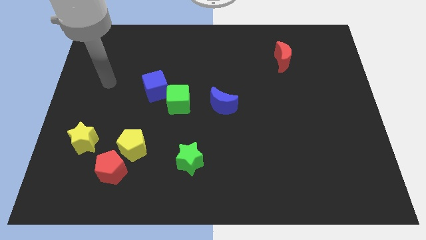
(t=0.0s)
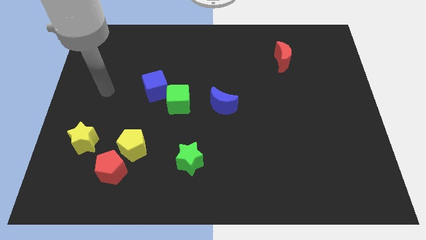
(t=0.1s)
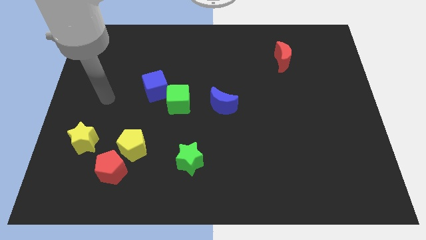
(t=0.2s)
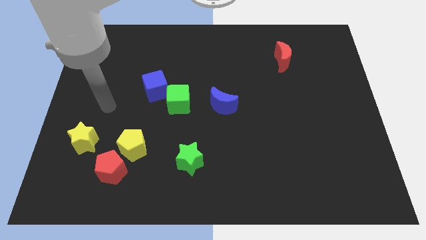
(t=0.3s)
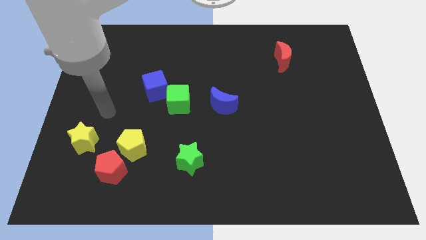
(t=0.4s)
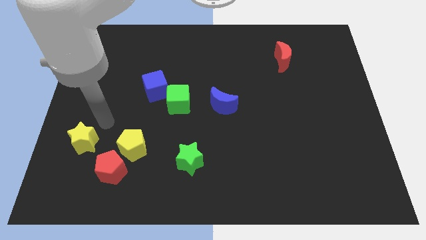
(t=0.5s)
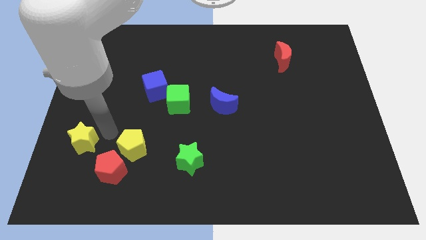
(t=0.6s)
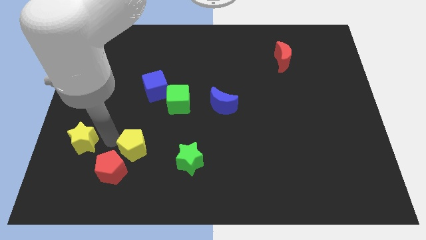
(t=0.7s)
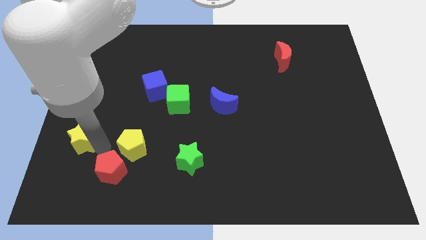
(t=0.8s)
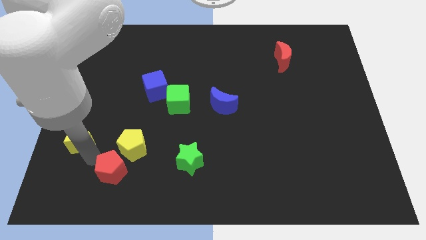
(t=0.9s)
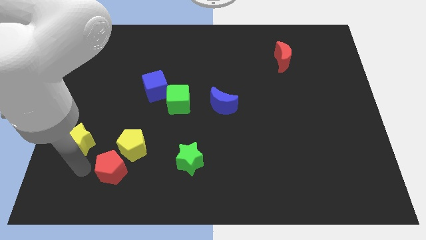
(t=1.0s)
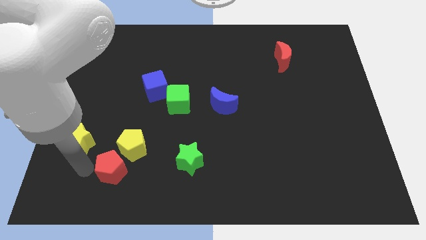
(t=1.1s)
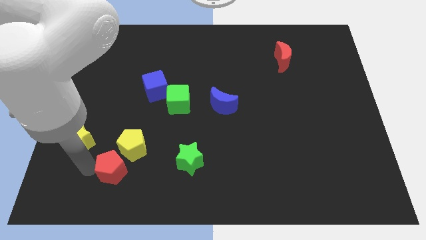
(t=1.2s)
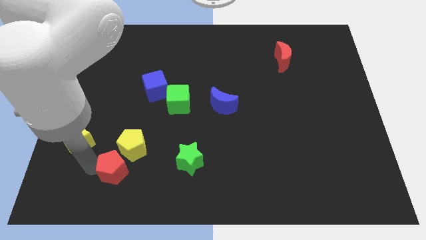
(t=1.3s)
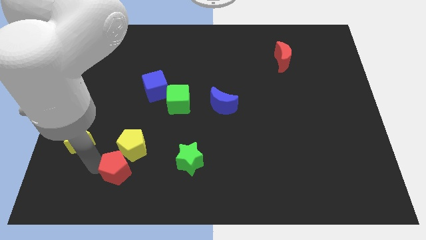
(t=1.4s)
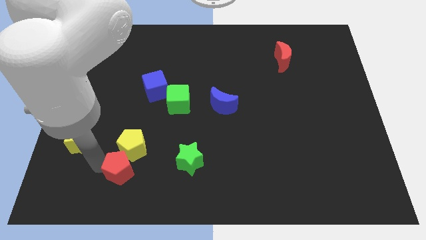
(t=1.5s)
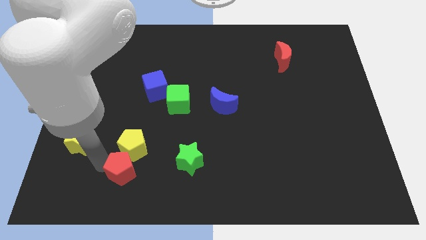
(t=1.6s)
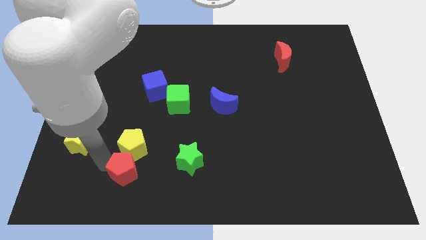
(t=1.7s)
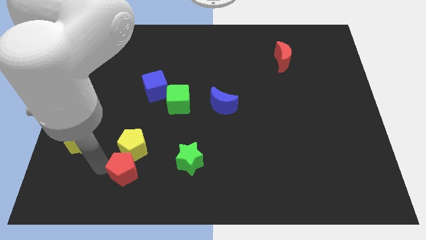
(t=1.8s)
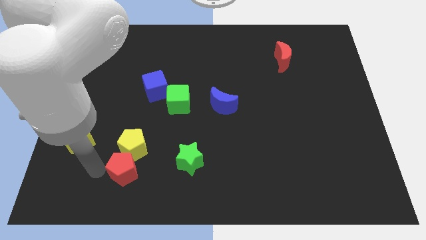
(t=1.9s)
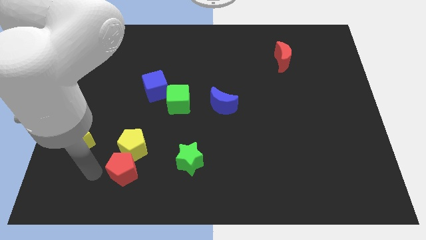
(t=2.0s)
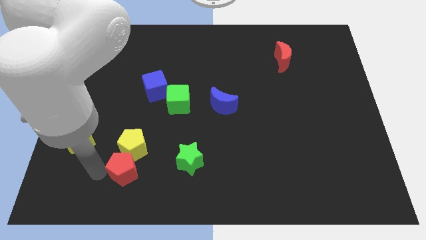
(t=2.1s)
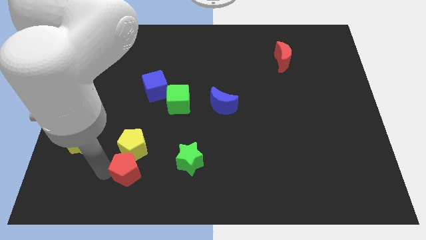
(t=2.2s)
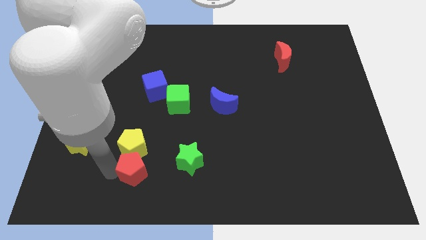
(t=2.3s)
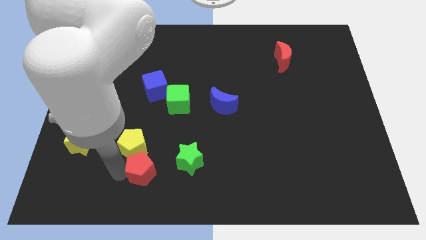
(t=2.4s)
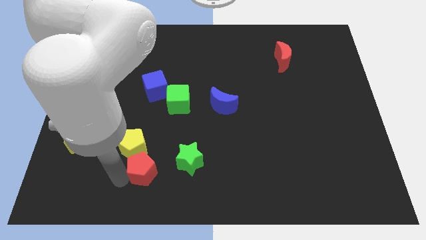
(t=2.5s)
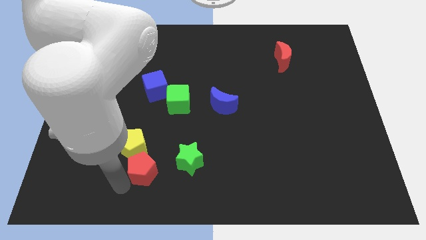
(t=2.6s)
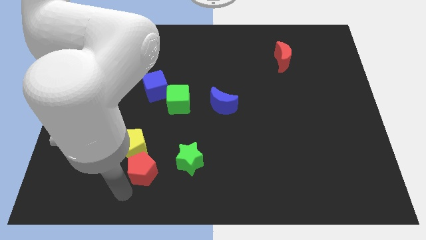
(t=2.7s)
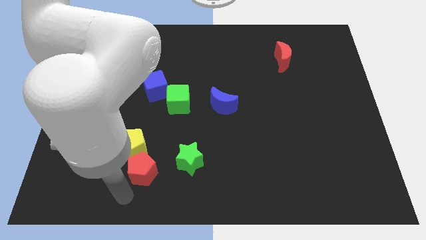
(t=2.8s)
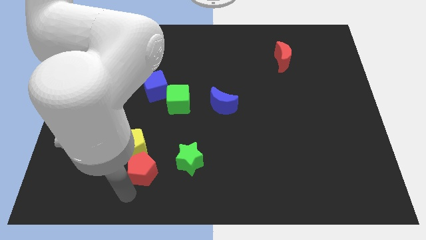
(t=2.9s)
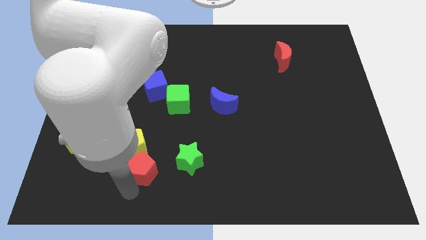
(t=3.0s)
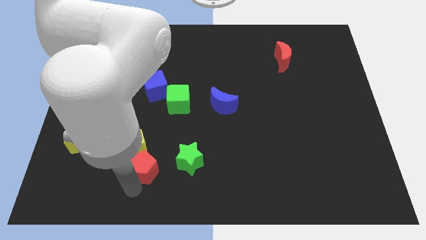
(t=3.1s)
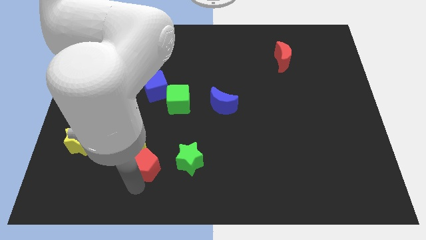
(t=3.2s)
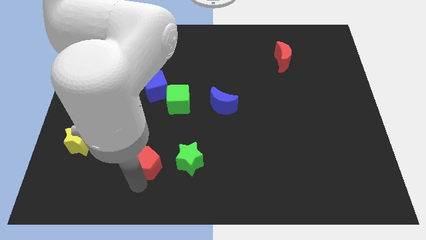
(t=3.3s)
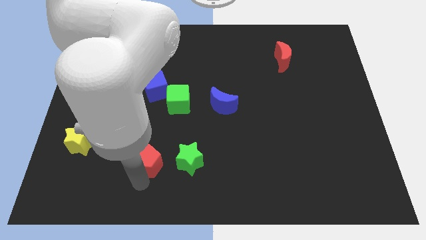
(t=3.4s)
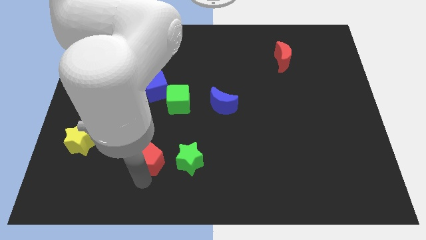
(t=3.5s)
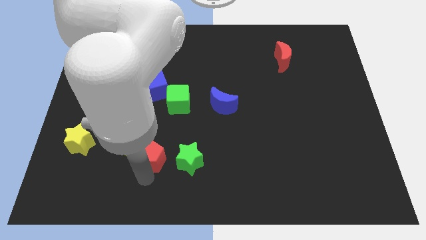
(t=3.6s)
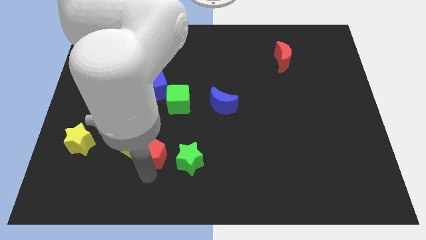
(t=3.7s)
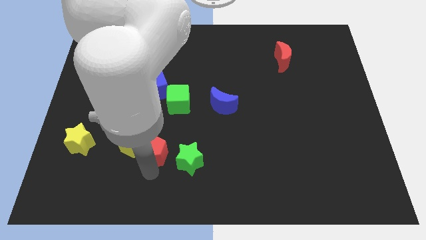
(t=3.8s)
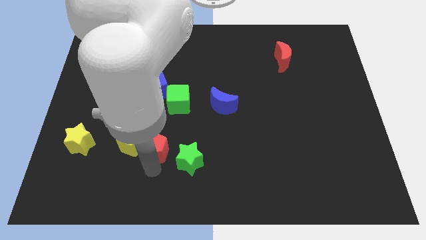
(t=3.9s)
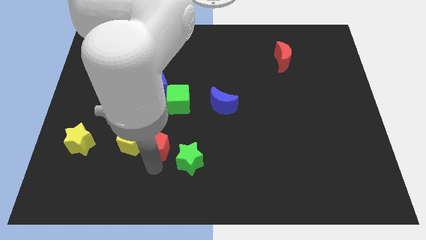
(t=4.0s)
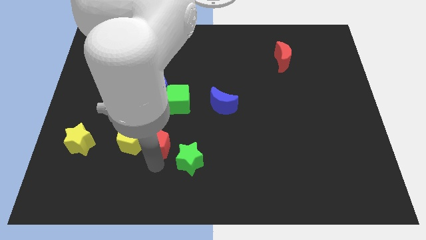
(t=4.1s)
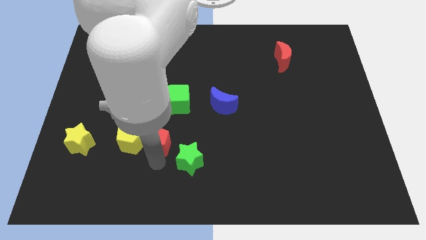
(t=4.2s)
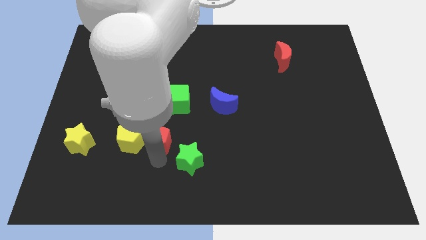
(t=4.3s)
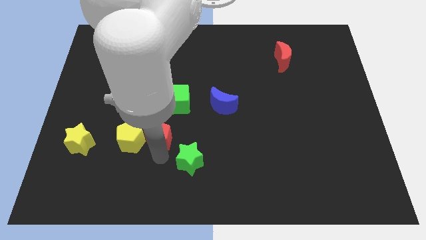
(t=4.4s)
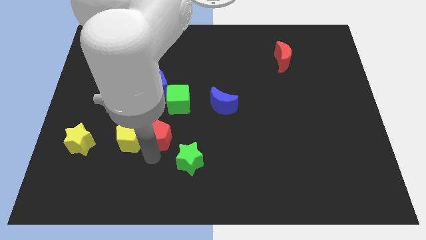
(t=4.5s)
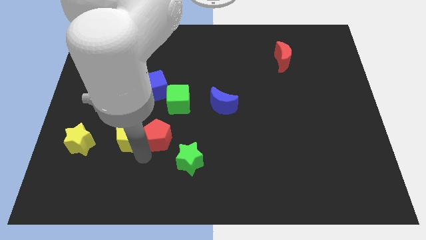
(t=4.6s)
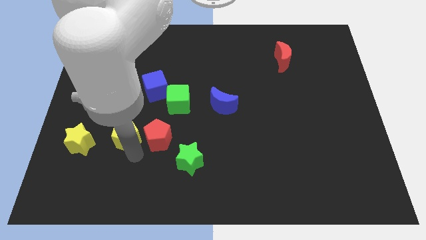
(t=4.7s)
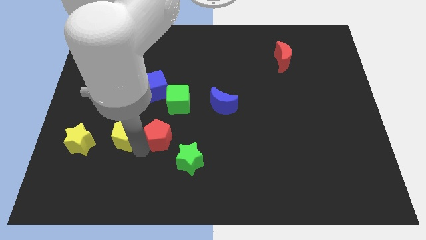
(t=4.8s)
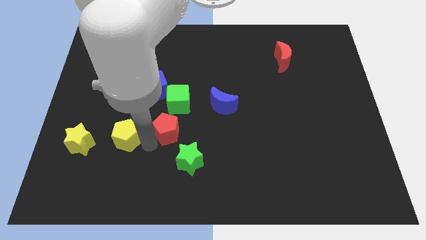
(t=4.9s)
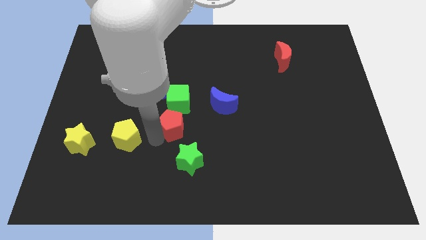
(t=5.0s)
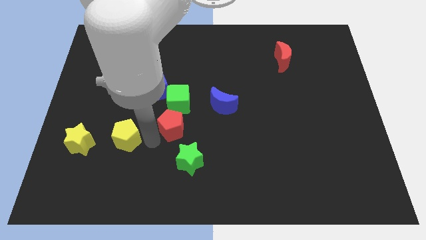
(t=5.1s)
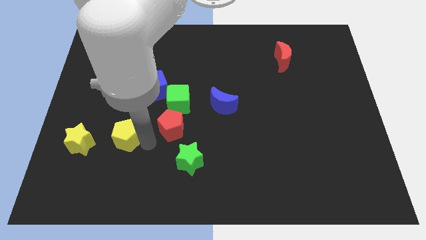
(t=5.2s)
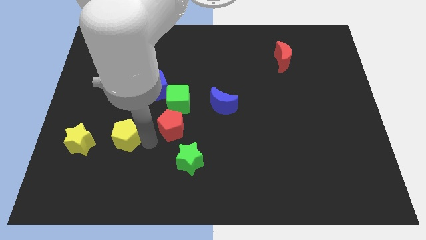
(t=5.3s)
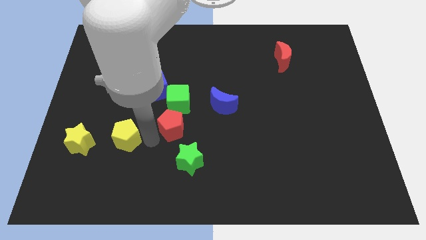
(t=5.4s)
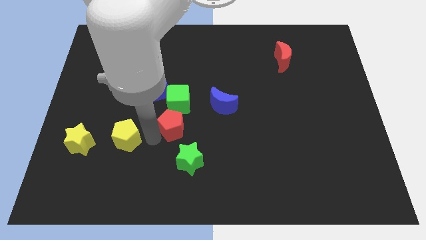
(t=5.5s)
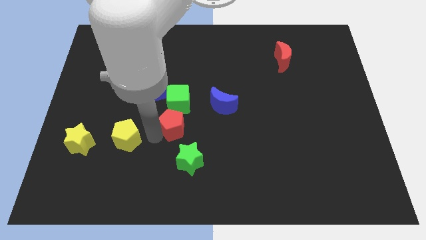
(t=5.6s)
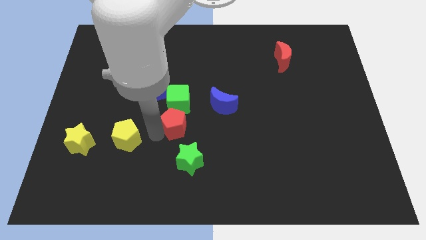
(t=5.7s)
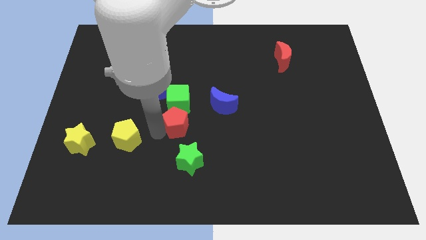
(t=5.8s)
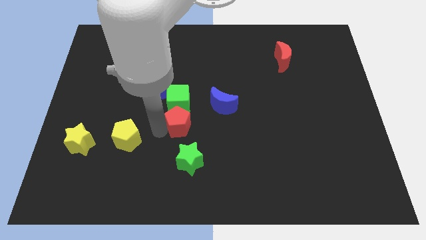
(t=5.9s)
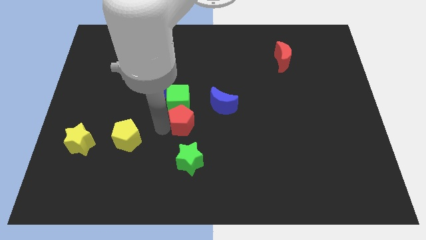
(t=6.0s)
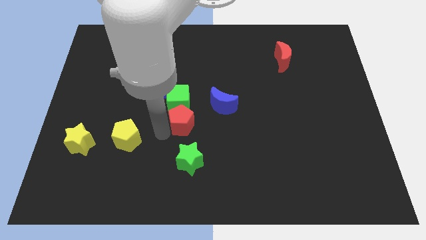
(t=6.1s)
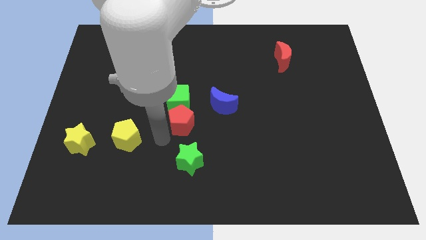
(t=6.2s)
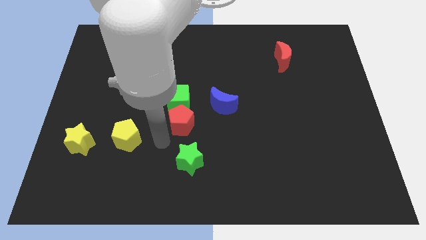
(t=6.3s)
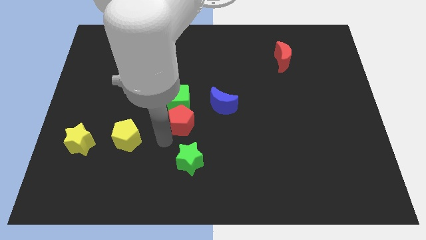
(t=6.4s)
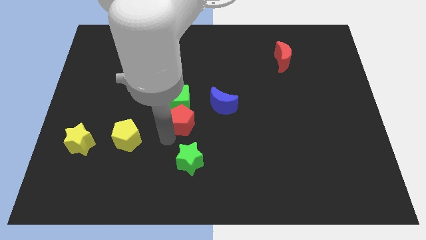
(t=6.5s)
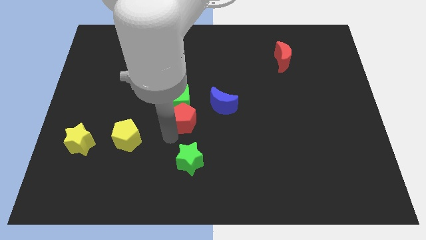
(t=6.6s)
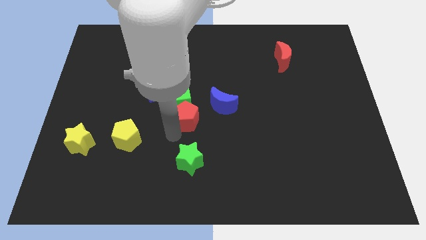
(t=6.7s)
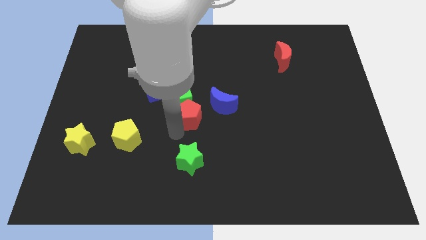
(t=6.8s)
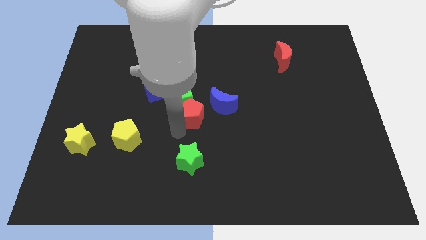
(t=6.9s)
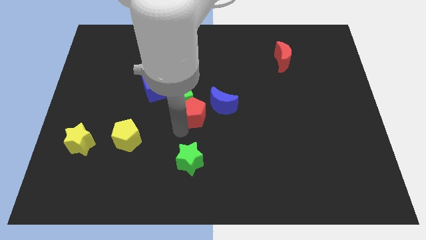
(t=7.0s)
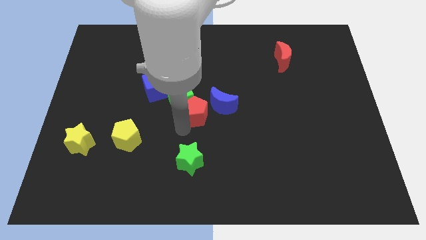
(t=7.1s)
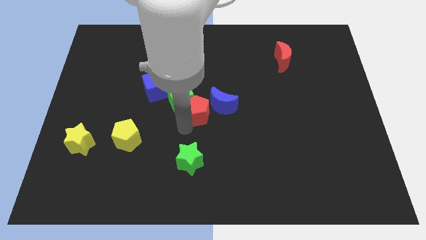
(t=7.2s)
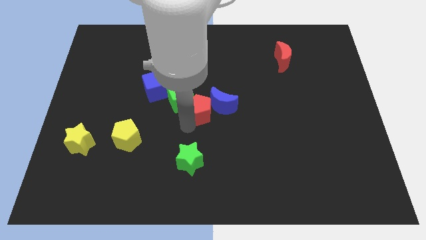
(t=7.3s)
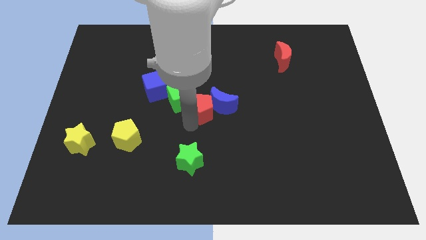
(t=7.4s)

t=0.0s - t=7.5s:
put the red pentagon to the top left of the blue moon
